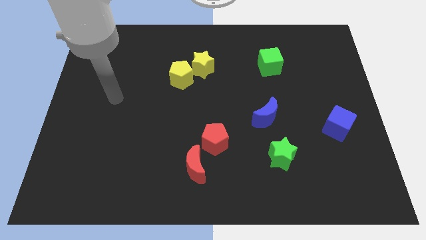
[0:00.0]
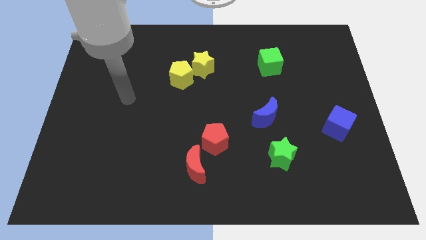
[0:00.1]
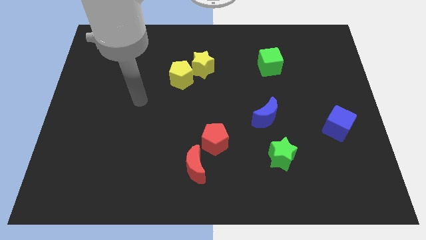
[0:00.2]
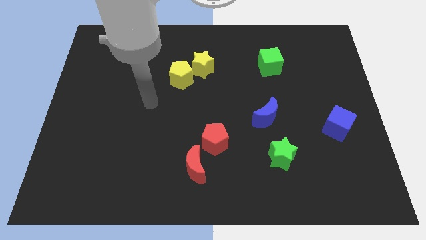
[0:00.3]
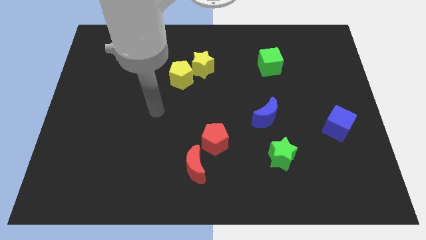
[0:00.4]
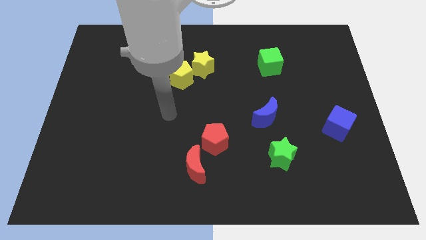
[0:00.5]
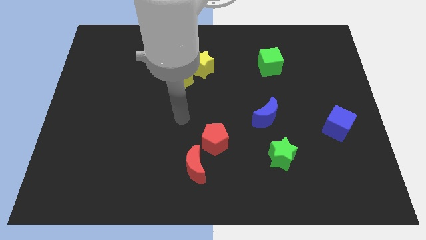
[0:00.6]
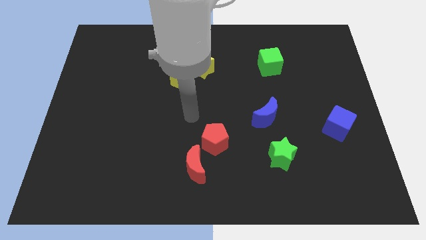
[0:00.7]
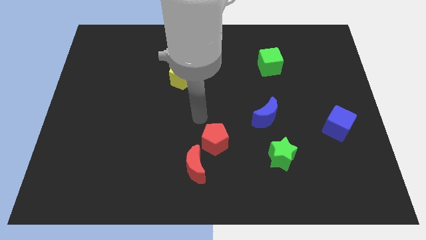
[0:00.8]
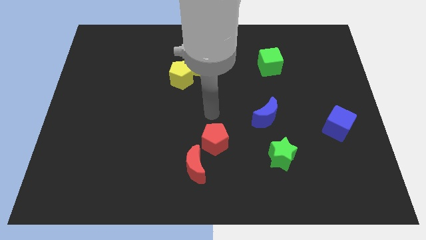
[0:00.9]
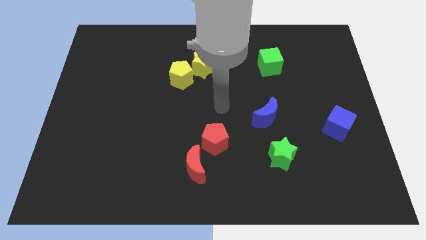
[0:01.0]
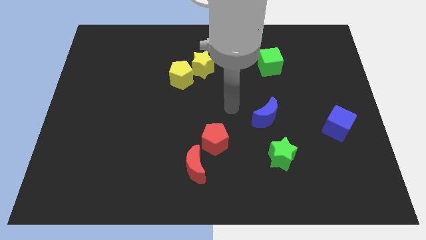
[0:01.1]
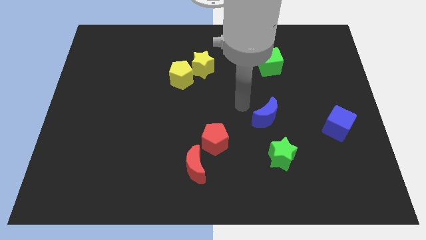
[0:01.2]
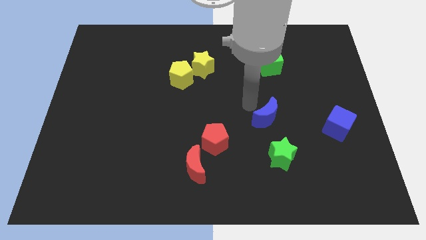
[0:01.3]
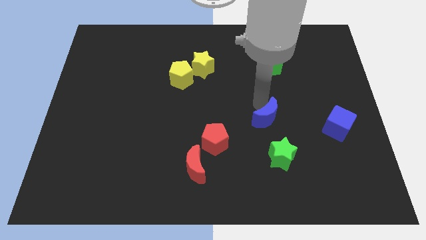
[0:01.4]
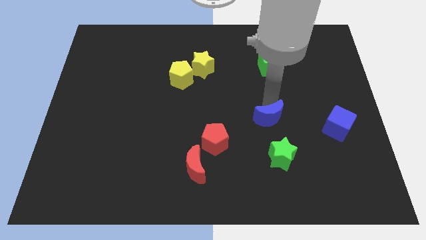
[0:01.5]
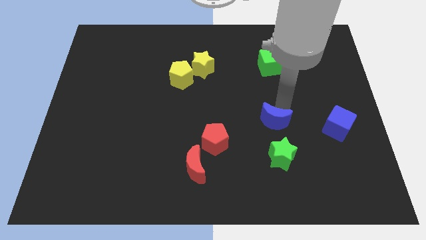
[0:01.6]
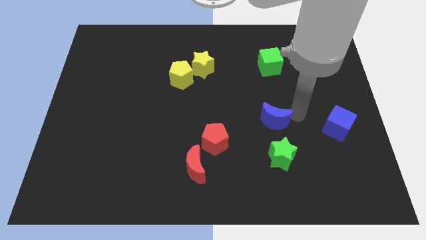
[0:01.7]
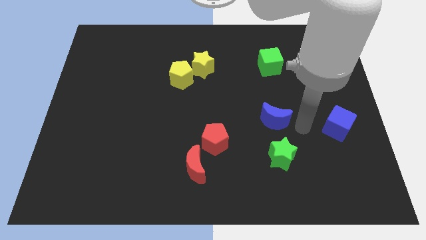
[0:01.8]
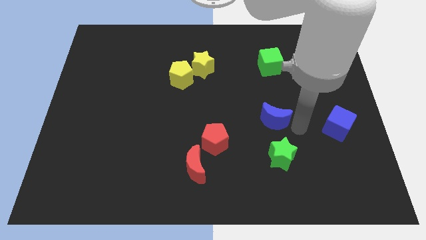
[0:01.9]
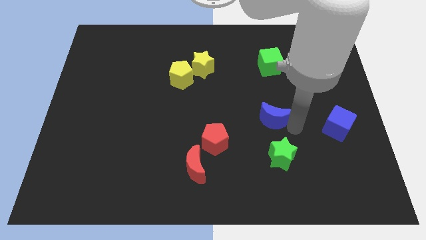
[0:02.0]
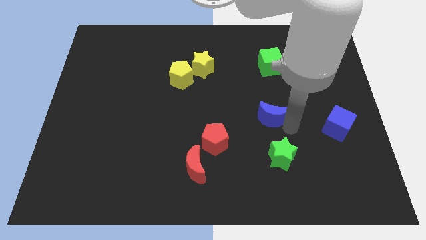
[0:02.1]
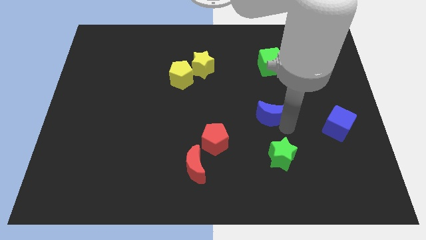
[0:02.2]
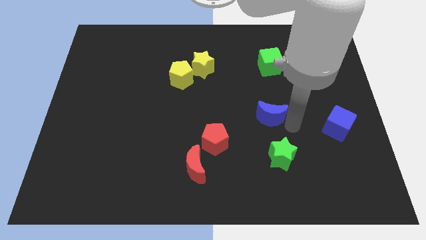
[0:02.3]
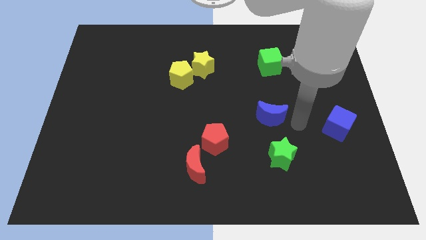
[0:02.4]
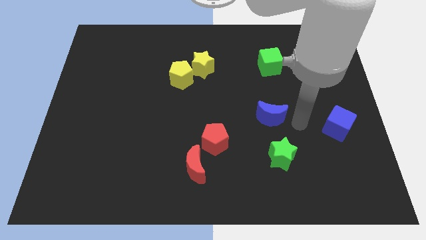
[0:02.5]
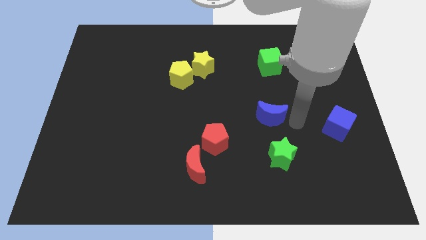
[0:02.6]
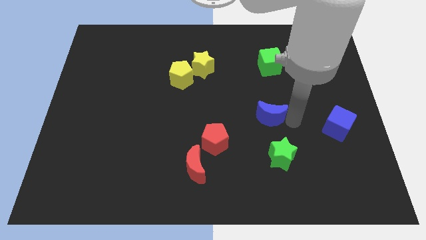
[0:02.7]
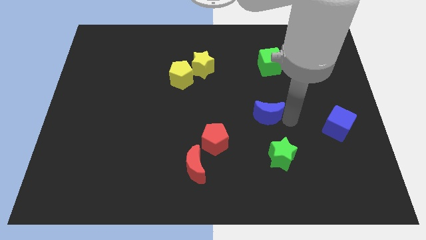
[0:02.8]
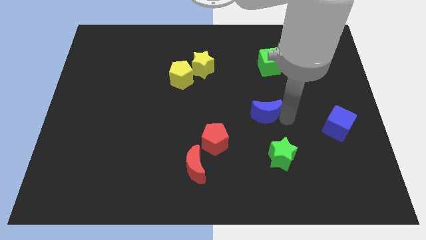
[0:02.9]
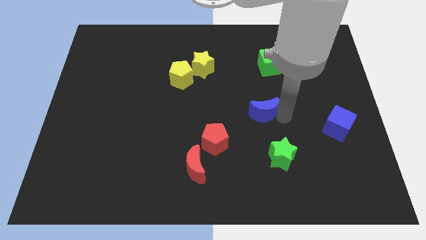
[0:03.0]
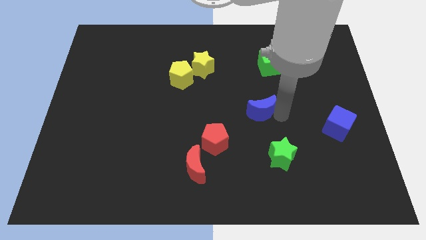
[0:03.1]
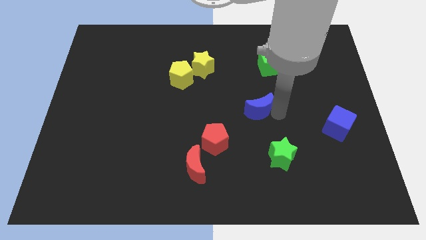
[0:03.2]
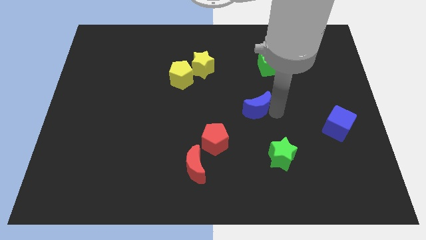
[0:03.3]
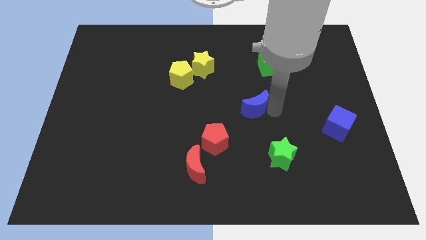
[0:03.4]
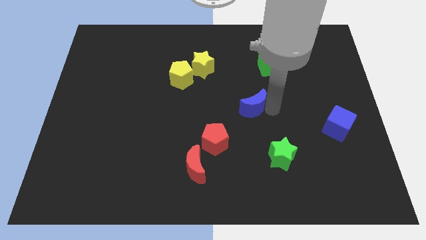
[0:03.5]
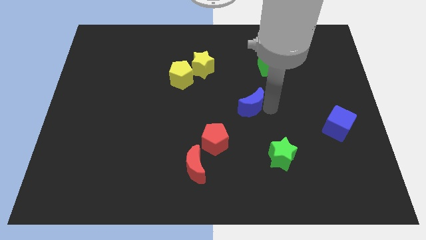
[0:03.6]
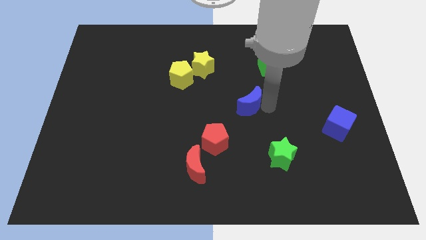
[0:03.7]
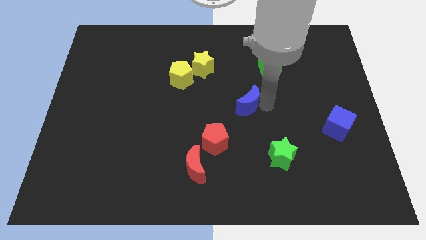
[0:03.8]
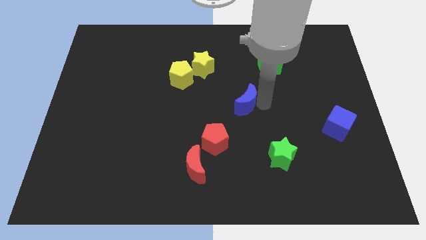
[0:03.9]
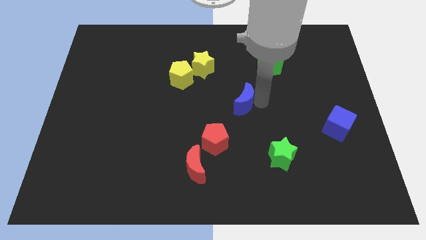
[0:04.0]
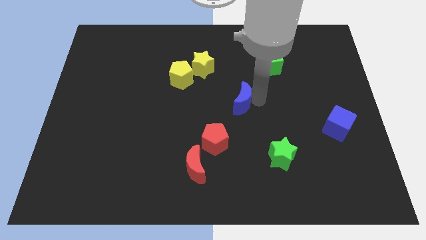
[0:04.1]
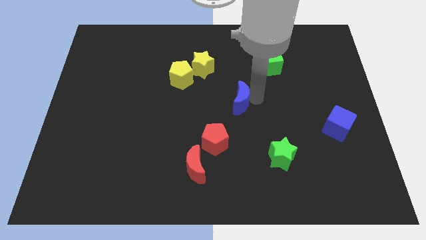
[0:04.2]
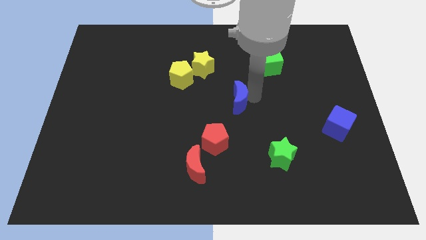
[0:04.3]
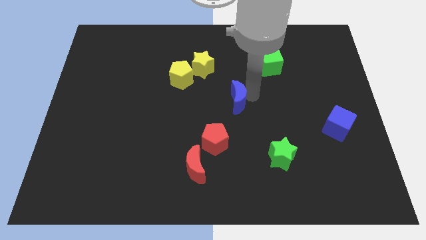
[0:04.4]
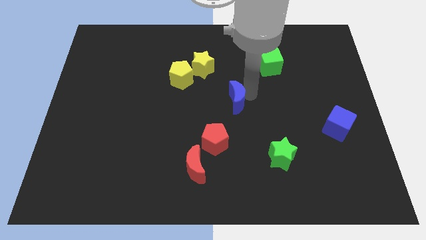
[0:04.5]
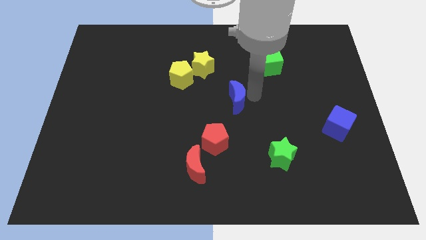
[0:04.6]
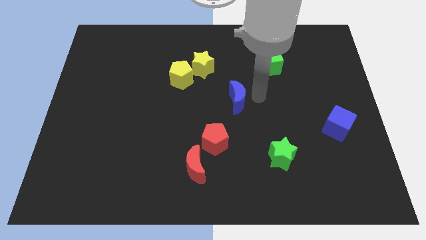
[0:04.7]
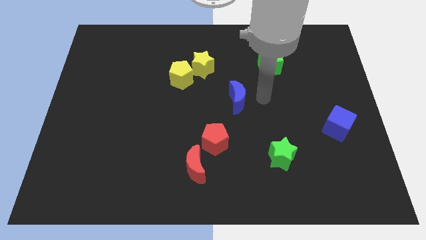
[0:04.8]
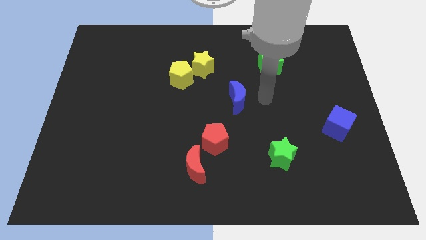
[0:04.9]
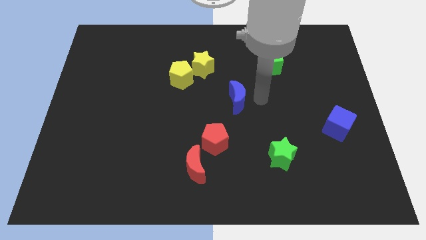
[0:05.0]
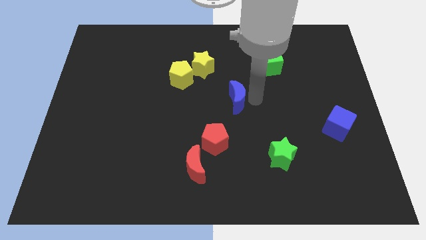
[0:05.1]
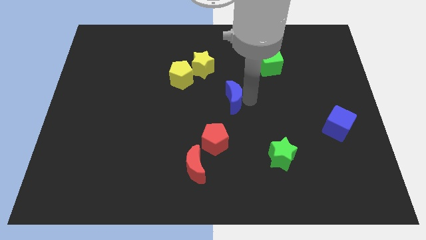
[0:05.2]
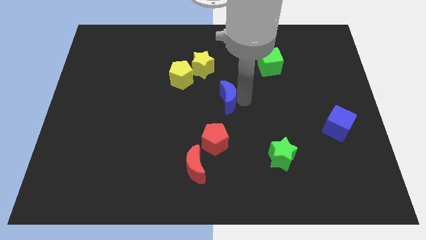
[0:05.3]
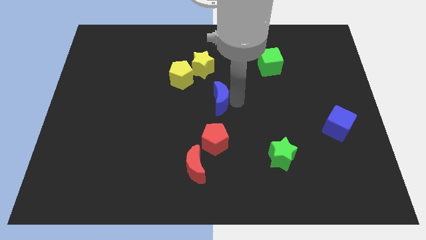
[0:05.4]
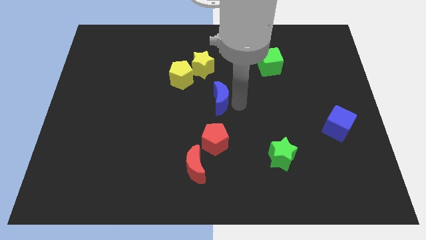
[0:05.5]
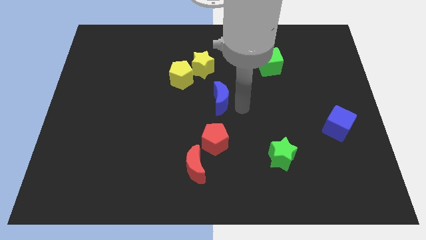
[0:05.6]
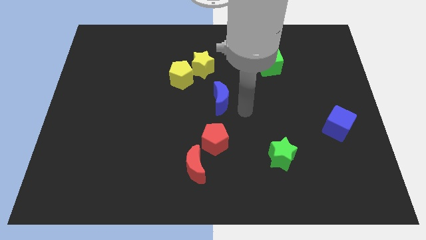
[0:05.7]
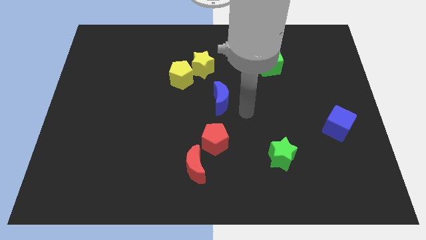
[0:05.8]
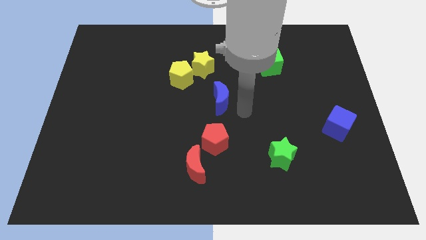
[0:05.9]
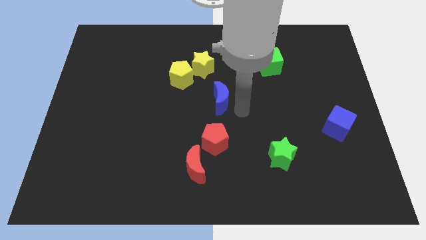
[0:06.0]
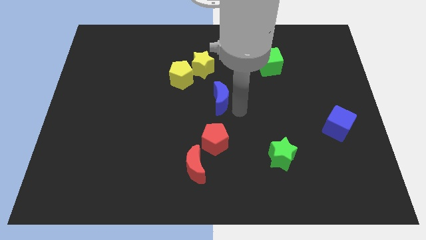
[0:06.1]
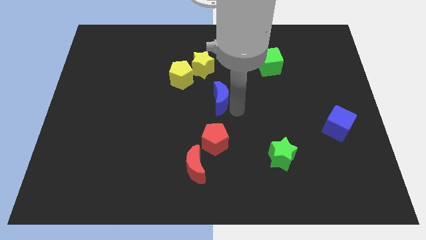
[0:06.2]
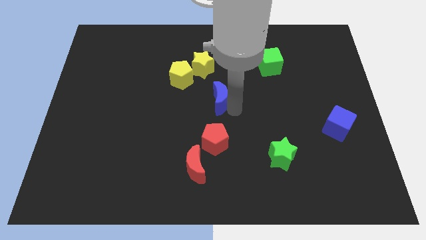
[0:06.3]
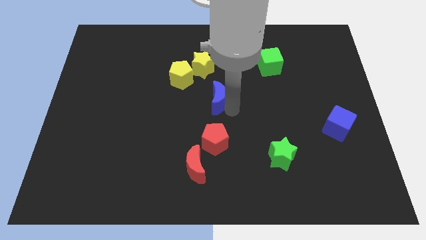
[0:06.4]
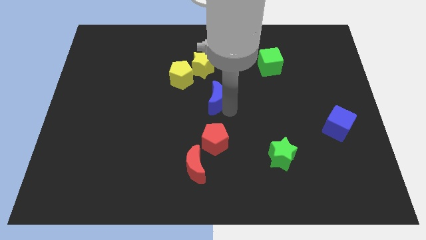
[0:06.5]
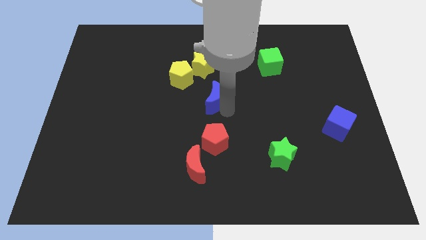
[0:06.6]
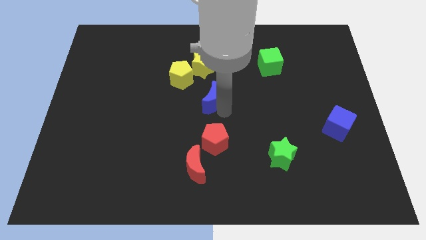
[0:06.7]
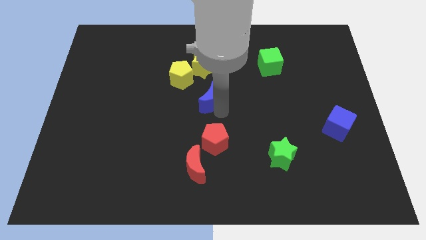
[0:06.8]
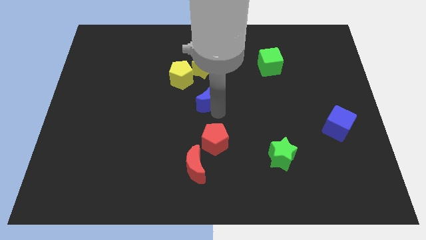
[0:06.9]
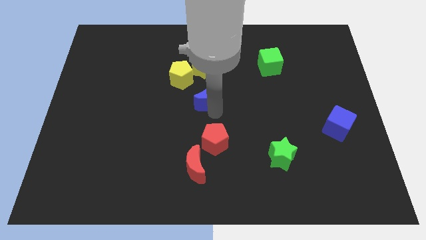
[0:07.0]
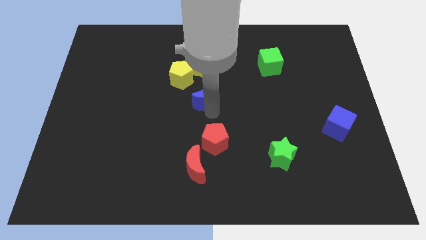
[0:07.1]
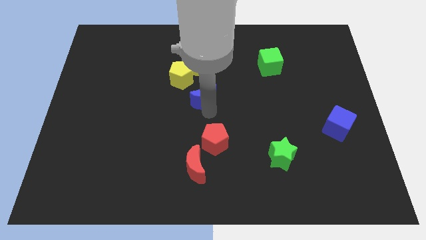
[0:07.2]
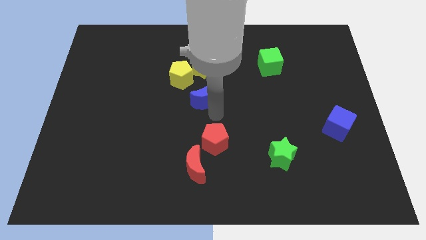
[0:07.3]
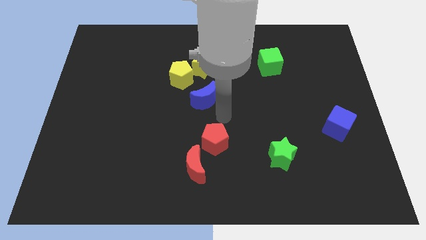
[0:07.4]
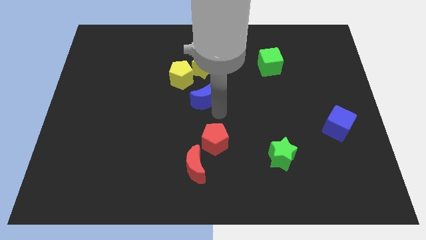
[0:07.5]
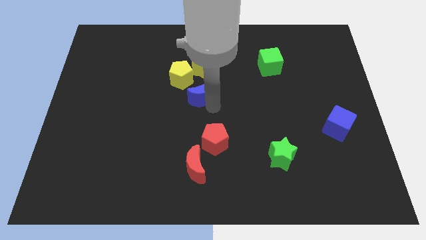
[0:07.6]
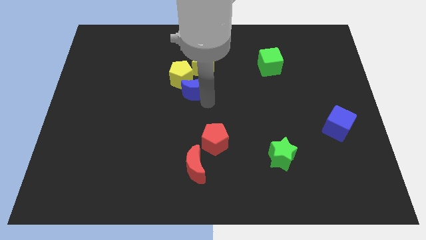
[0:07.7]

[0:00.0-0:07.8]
slide the blue moon next to the yellow pentagon
